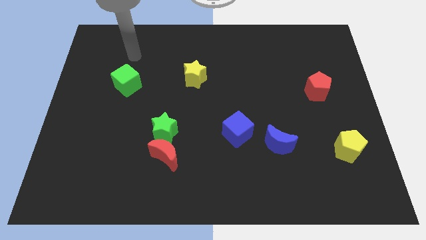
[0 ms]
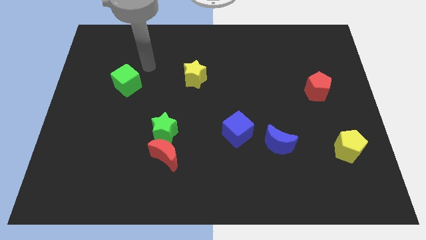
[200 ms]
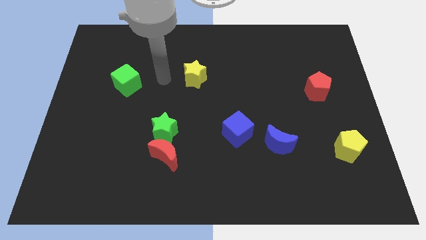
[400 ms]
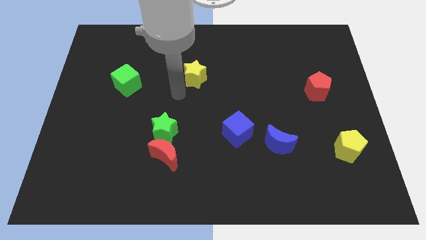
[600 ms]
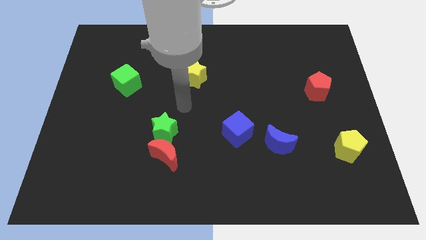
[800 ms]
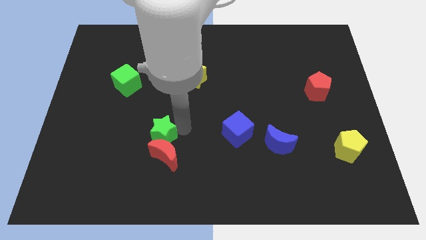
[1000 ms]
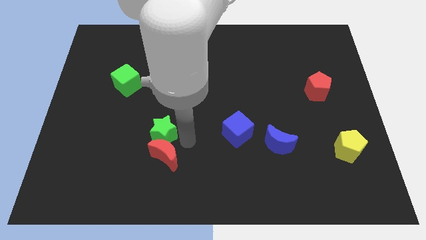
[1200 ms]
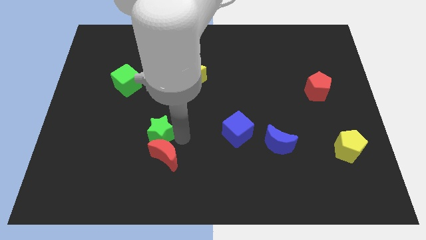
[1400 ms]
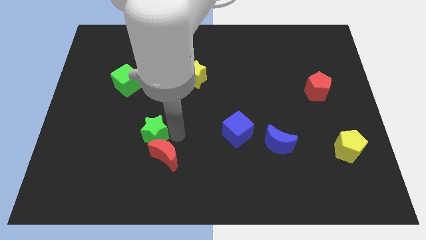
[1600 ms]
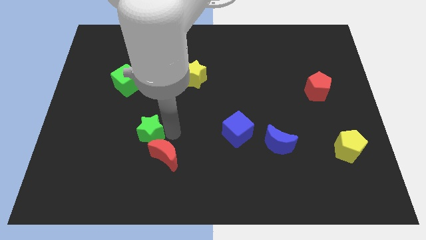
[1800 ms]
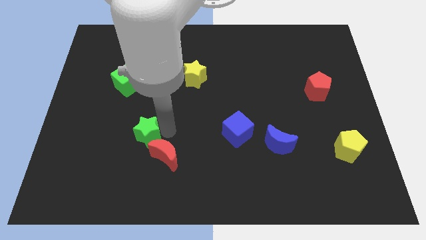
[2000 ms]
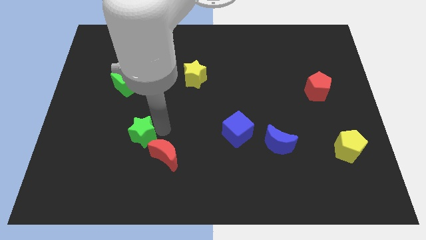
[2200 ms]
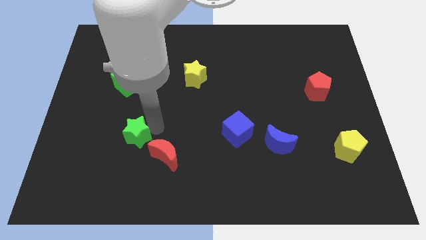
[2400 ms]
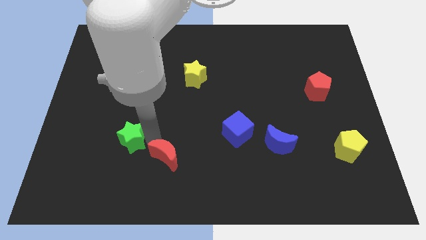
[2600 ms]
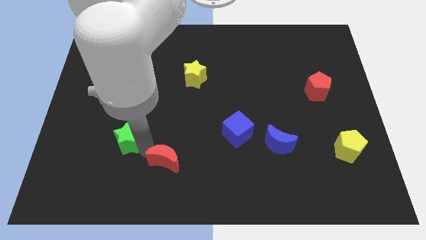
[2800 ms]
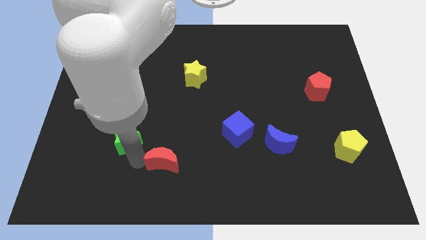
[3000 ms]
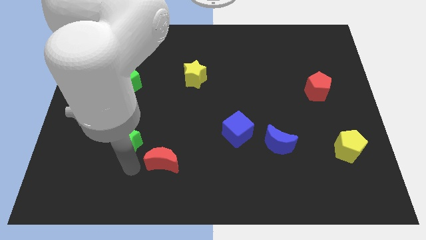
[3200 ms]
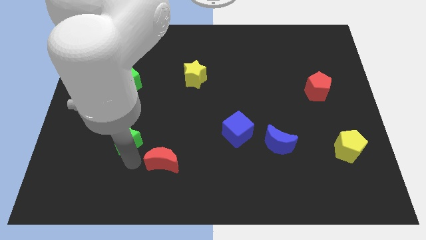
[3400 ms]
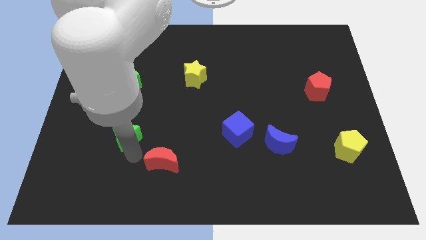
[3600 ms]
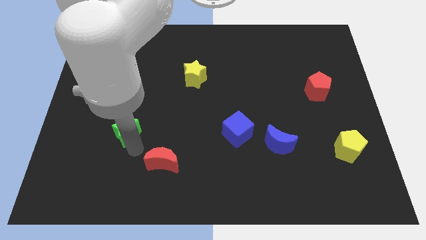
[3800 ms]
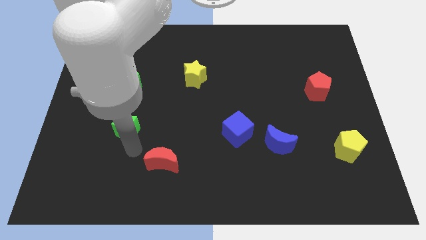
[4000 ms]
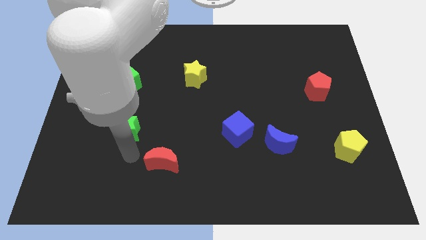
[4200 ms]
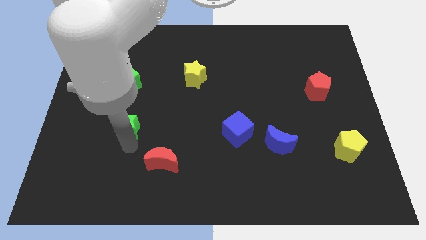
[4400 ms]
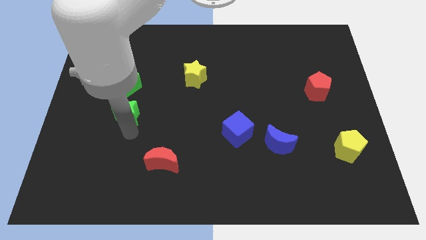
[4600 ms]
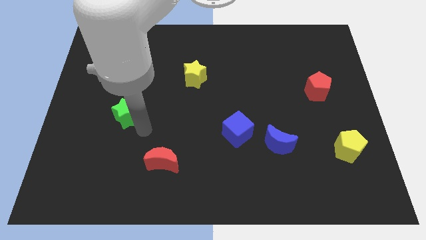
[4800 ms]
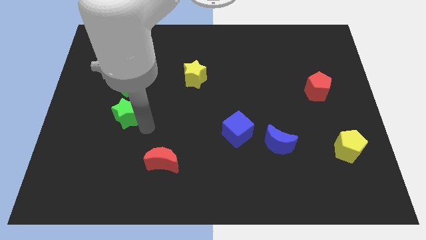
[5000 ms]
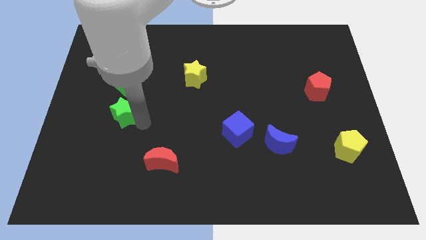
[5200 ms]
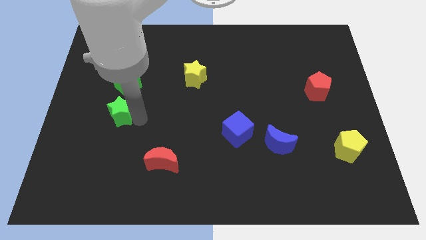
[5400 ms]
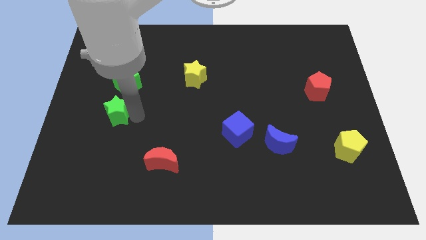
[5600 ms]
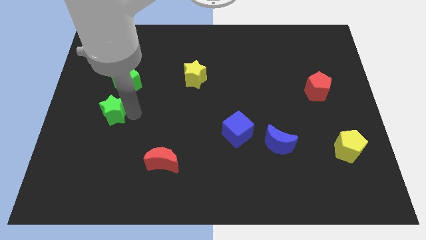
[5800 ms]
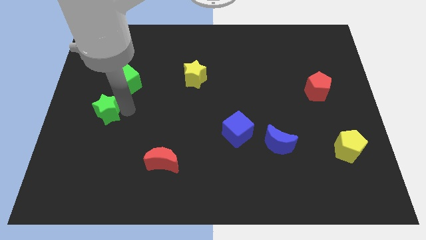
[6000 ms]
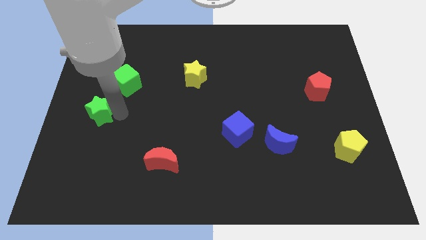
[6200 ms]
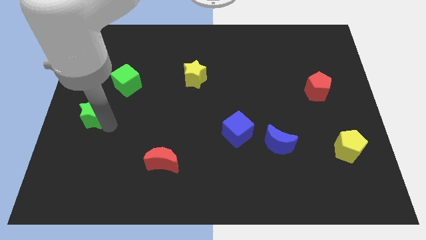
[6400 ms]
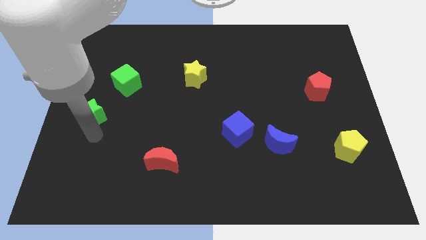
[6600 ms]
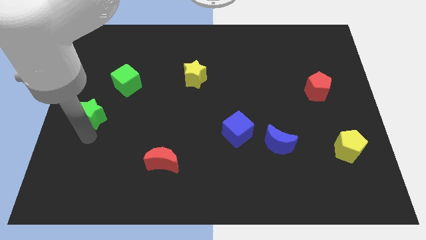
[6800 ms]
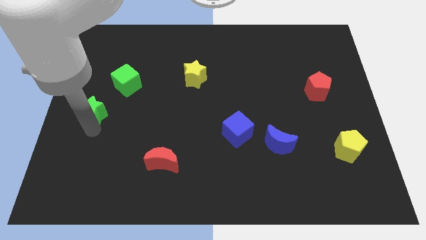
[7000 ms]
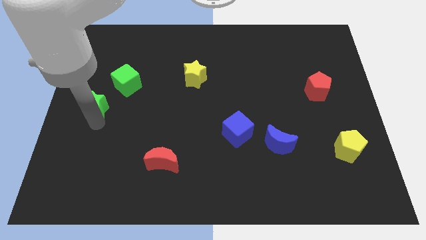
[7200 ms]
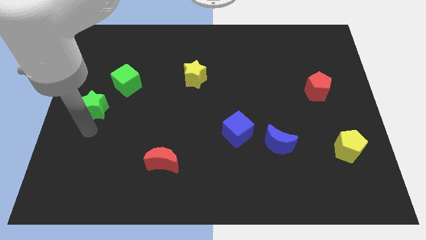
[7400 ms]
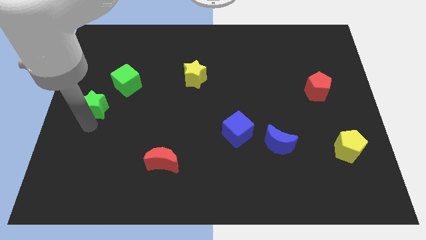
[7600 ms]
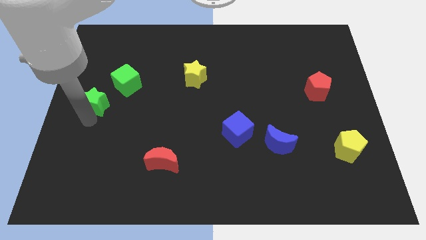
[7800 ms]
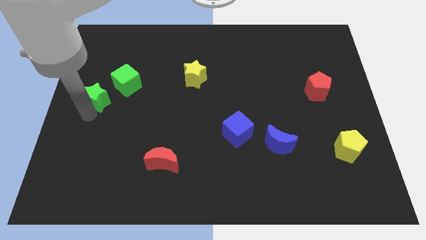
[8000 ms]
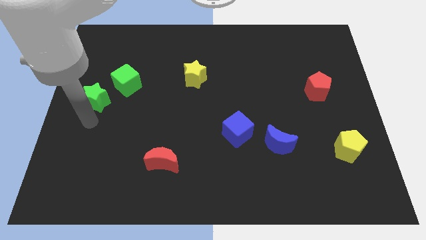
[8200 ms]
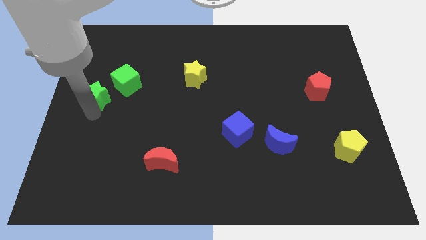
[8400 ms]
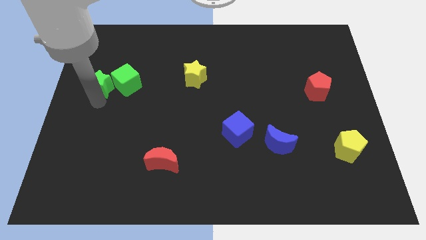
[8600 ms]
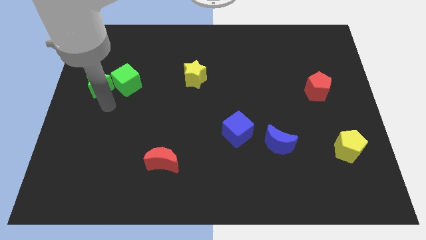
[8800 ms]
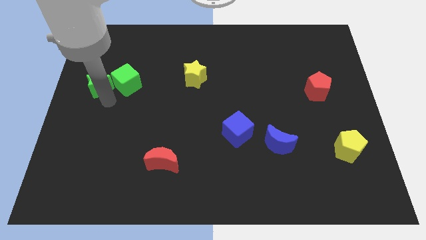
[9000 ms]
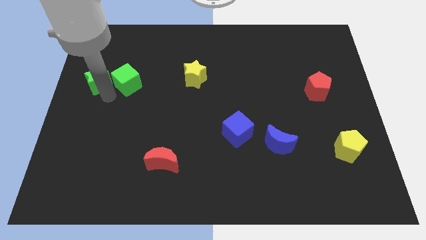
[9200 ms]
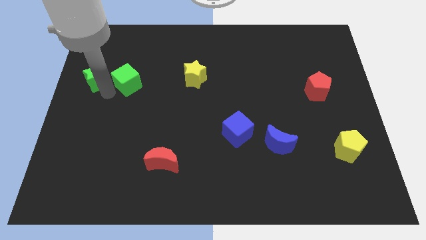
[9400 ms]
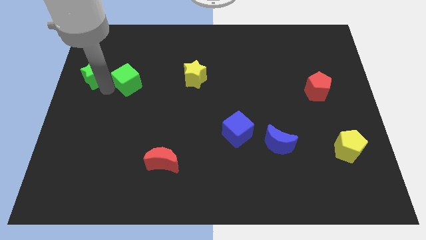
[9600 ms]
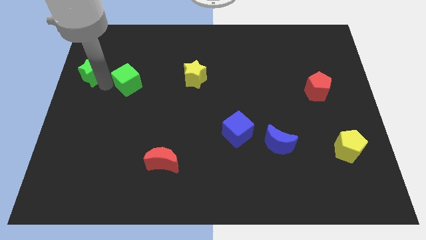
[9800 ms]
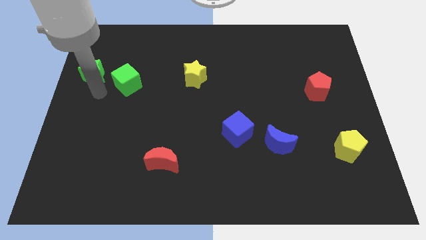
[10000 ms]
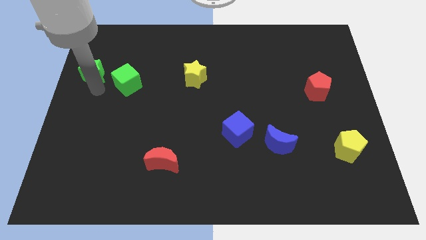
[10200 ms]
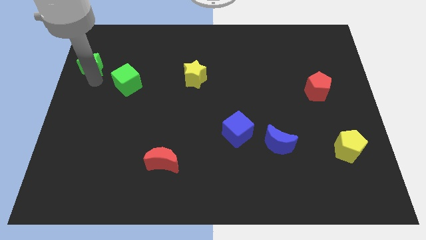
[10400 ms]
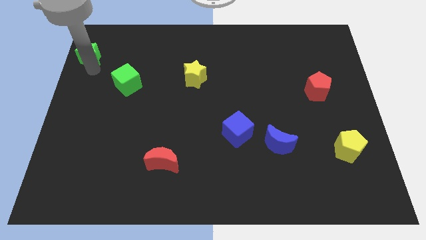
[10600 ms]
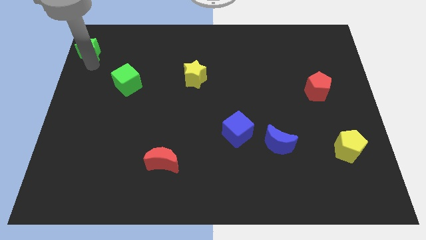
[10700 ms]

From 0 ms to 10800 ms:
put the green star to the top left

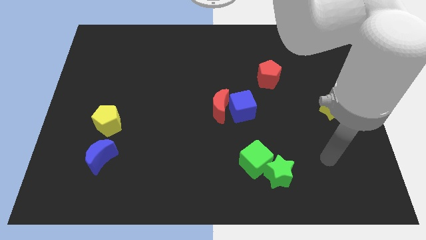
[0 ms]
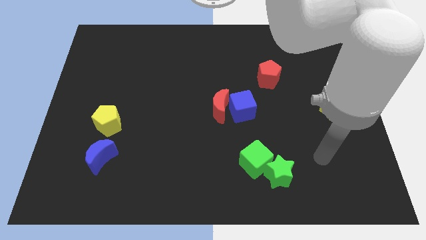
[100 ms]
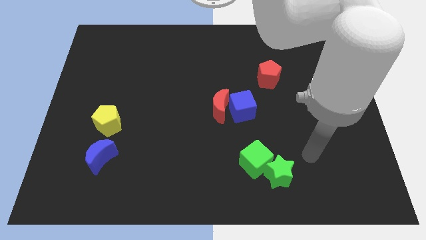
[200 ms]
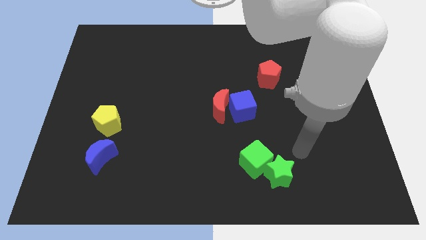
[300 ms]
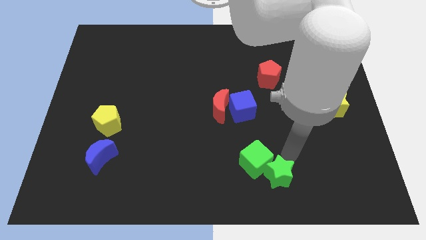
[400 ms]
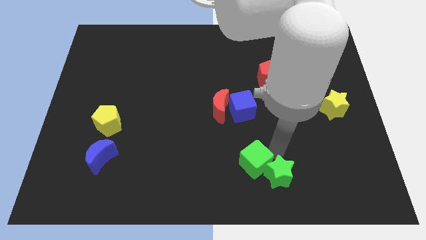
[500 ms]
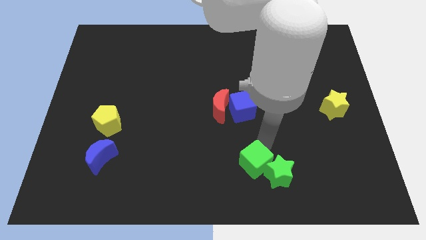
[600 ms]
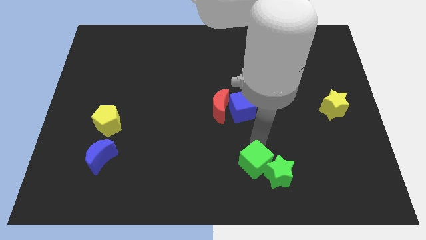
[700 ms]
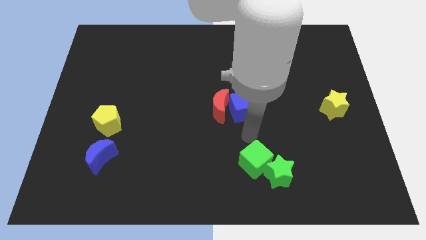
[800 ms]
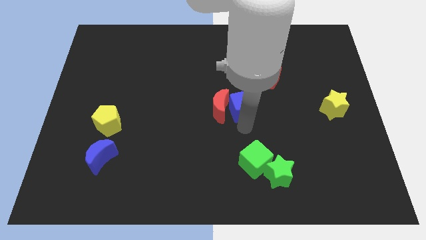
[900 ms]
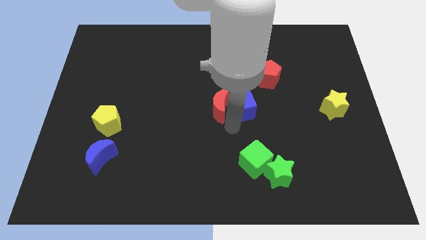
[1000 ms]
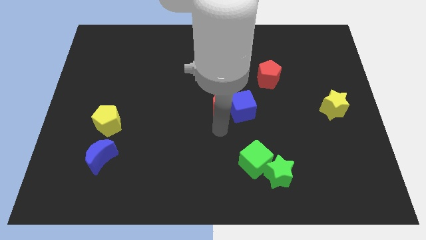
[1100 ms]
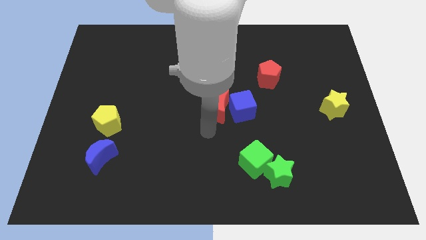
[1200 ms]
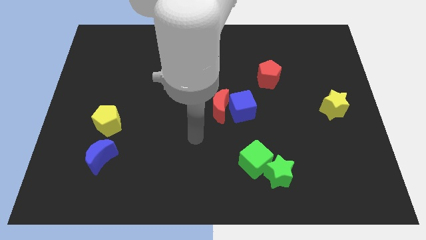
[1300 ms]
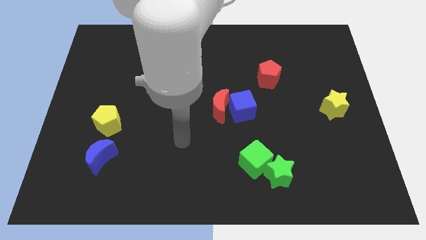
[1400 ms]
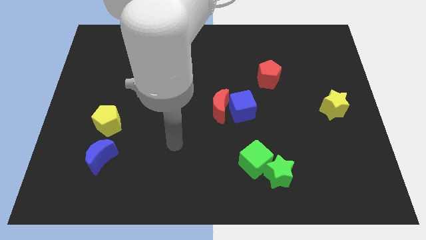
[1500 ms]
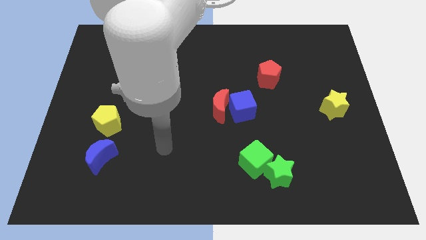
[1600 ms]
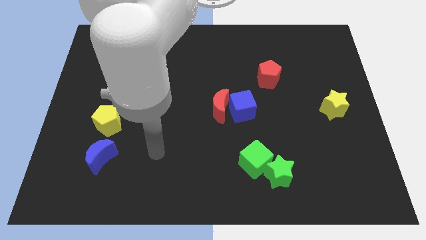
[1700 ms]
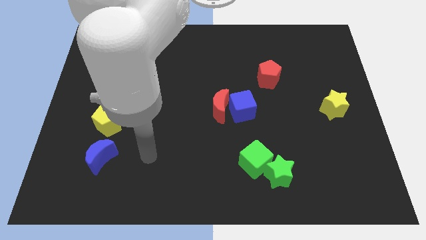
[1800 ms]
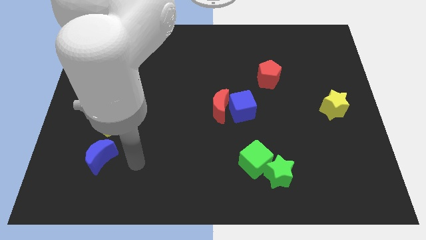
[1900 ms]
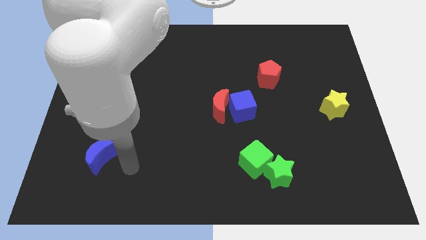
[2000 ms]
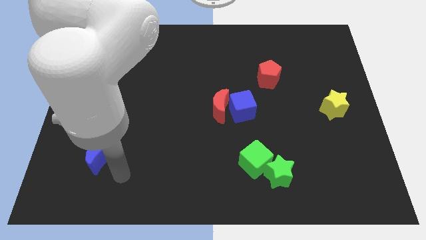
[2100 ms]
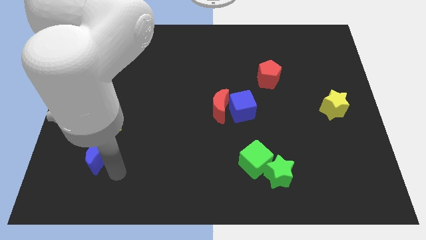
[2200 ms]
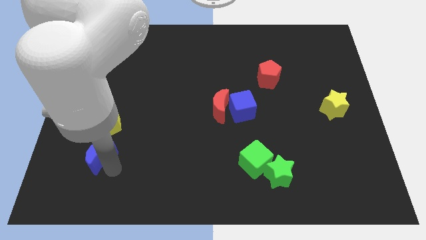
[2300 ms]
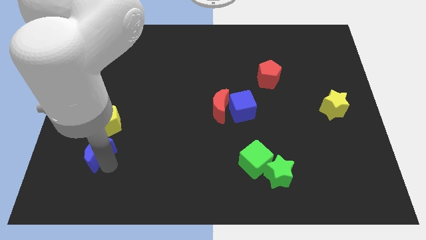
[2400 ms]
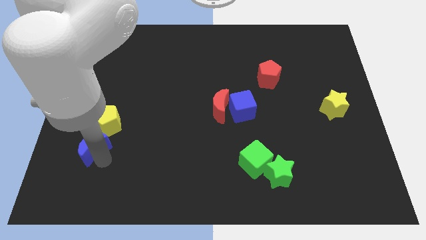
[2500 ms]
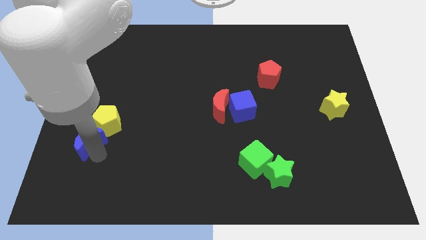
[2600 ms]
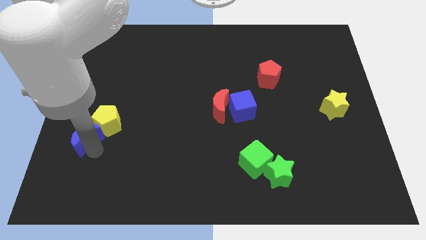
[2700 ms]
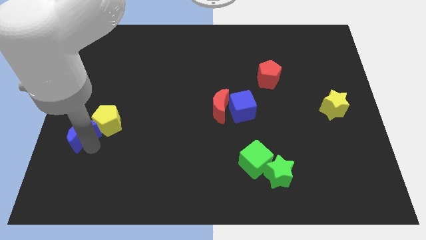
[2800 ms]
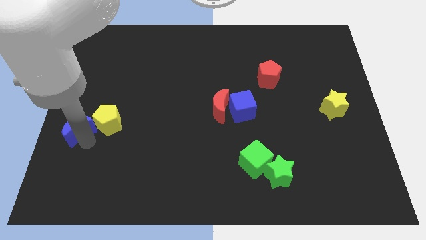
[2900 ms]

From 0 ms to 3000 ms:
put the blue moon to the left side
